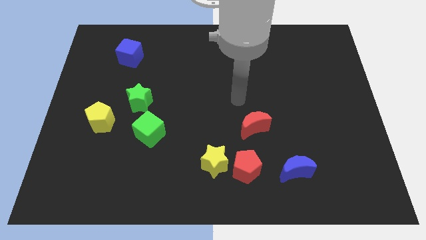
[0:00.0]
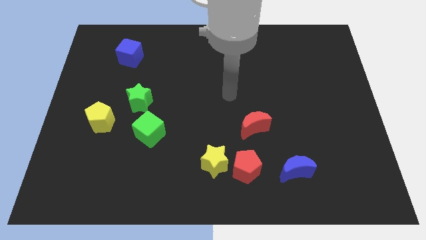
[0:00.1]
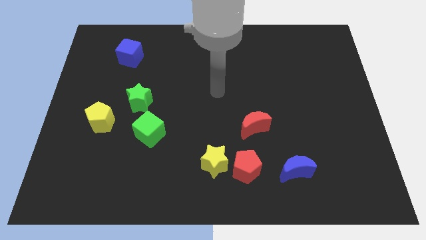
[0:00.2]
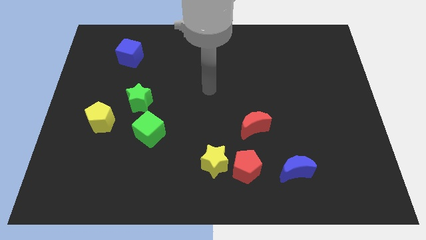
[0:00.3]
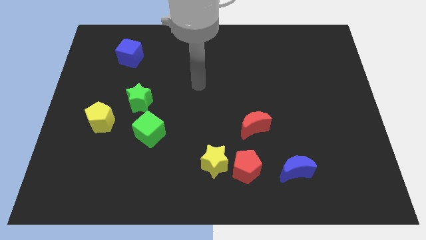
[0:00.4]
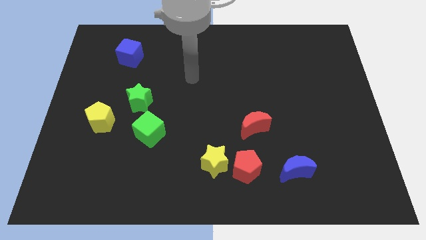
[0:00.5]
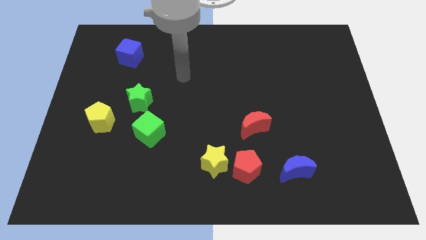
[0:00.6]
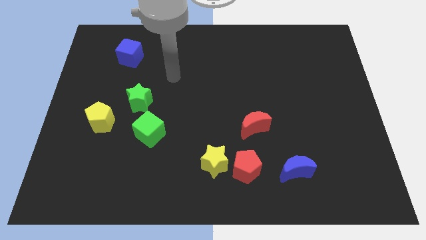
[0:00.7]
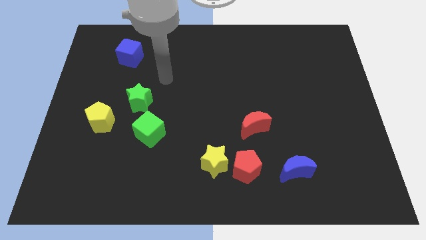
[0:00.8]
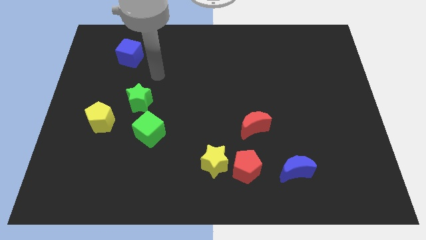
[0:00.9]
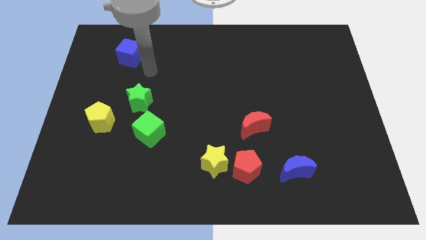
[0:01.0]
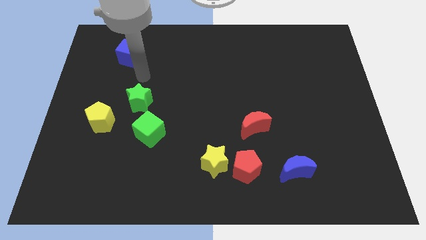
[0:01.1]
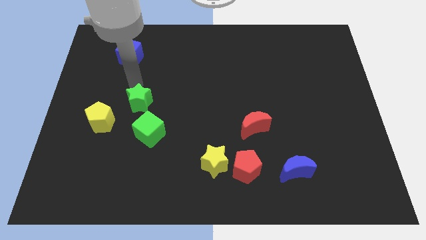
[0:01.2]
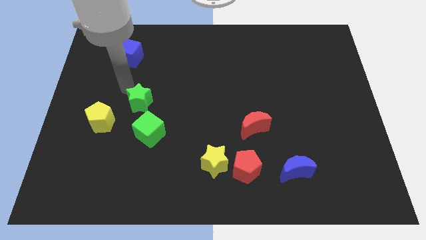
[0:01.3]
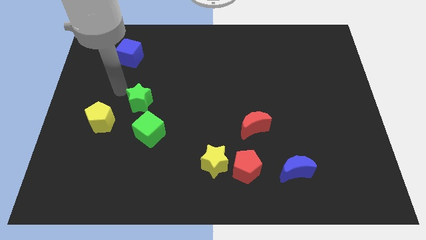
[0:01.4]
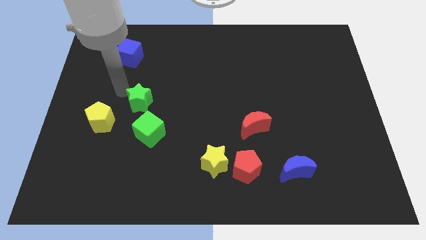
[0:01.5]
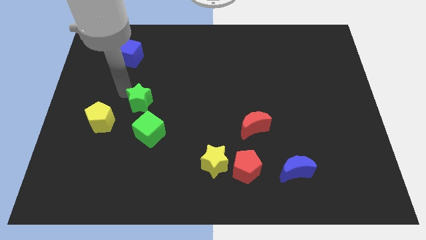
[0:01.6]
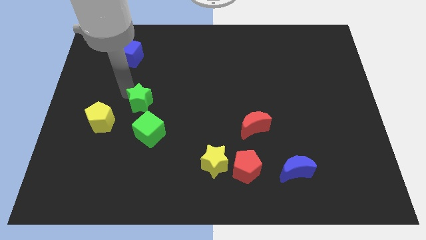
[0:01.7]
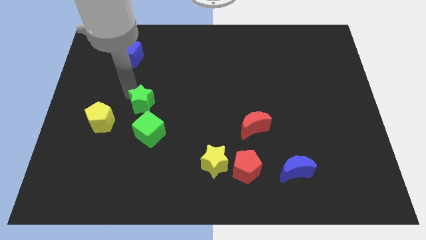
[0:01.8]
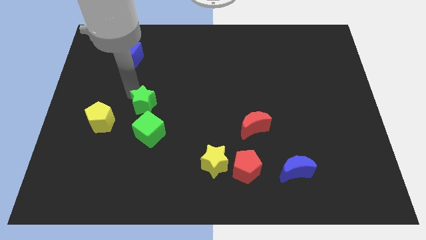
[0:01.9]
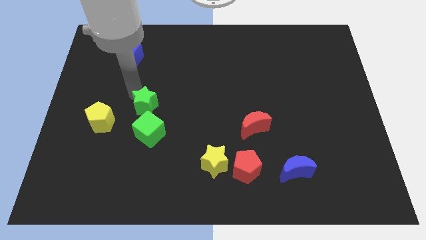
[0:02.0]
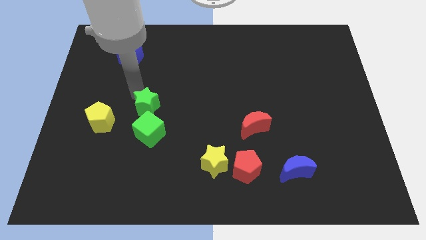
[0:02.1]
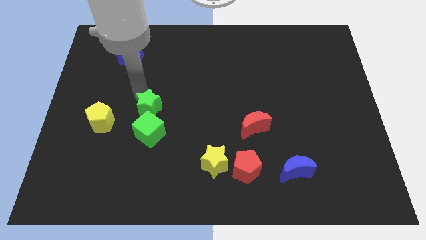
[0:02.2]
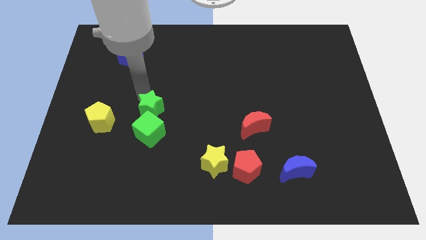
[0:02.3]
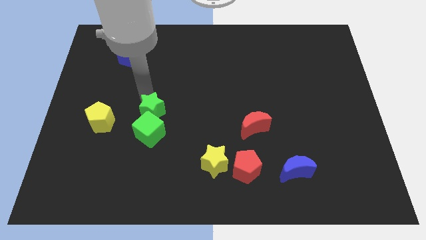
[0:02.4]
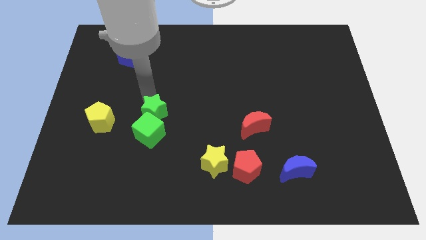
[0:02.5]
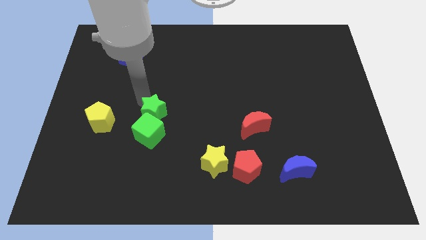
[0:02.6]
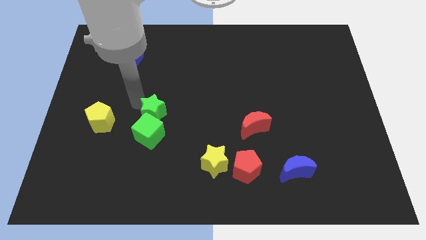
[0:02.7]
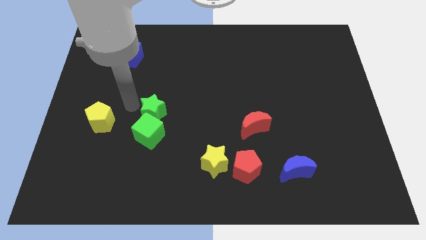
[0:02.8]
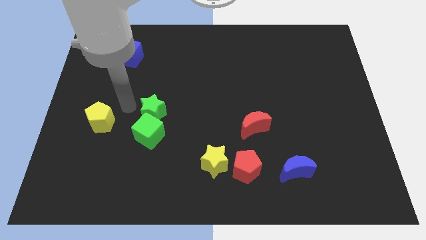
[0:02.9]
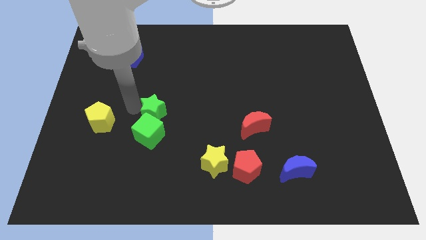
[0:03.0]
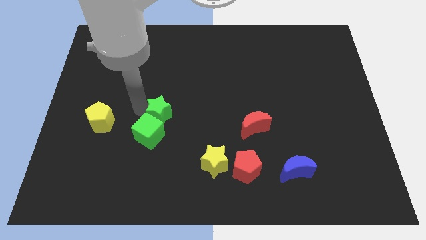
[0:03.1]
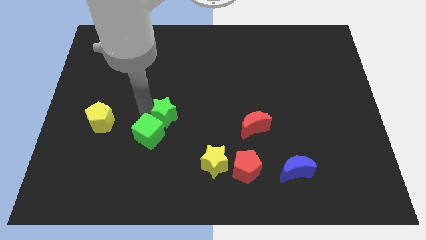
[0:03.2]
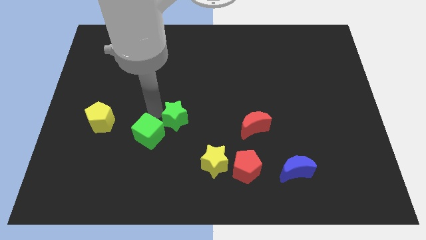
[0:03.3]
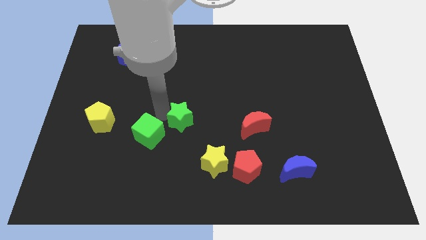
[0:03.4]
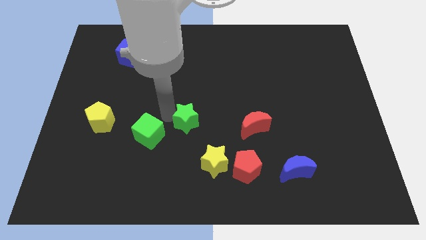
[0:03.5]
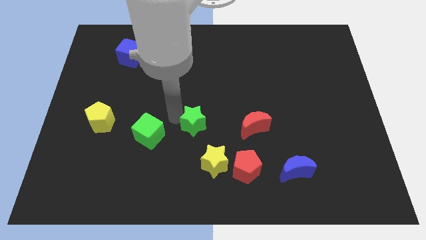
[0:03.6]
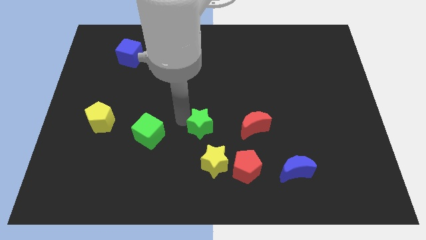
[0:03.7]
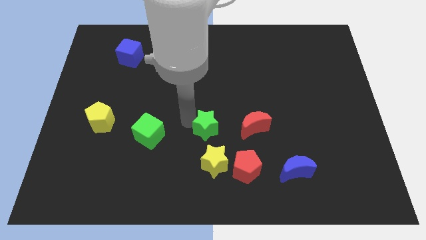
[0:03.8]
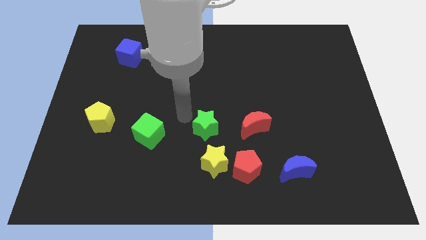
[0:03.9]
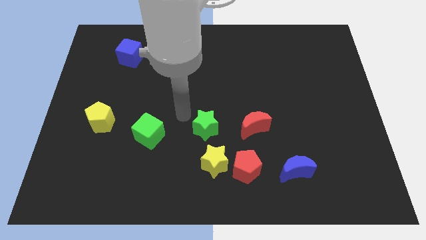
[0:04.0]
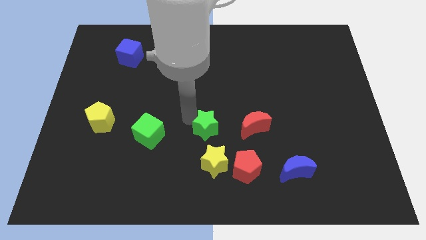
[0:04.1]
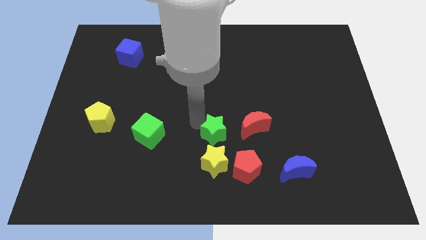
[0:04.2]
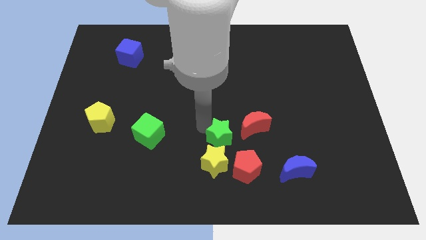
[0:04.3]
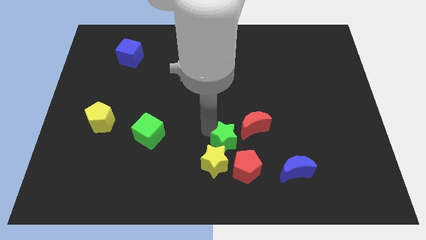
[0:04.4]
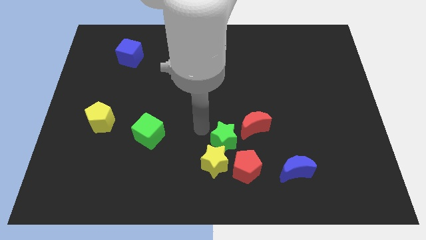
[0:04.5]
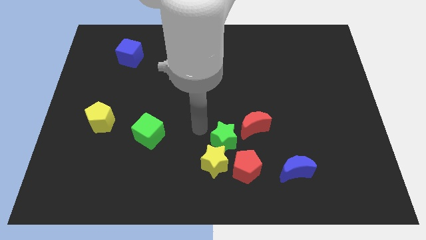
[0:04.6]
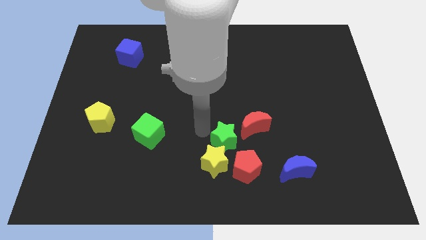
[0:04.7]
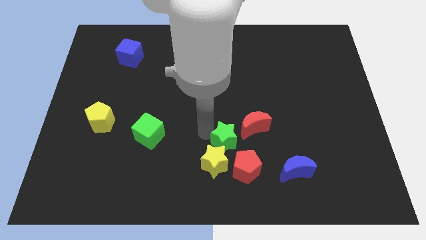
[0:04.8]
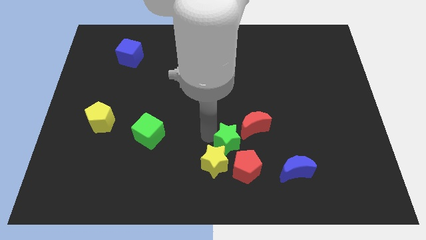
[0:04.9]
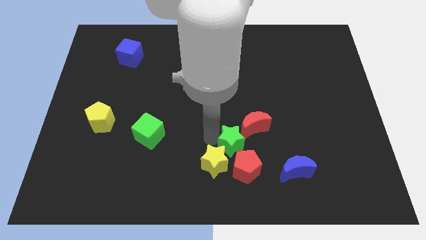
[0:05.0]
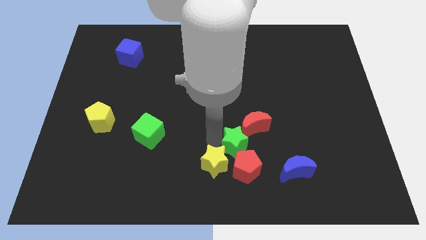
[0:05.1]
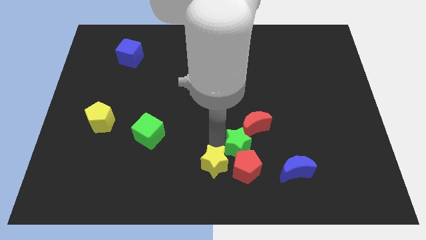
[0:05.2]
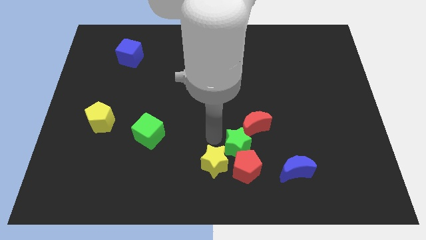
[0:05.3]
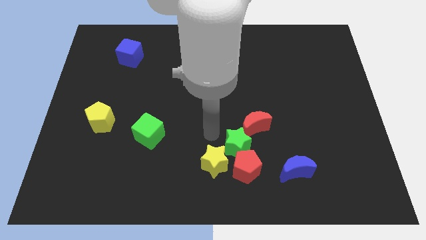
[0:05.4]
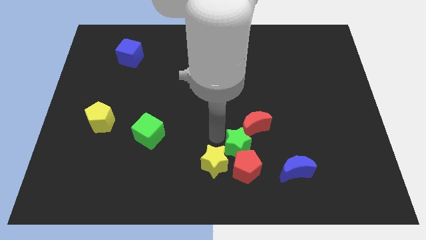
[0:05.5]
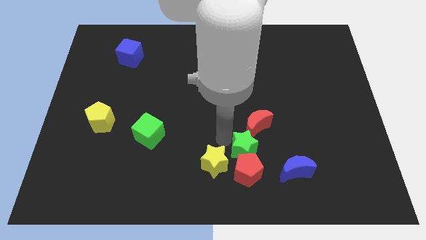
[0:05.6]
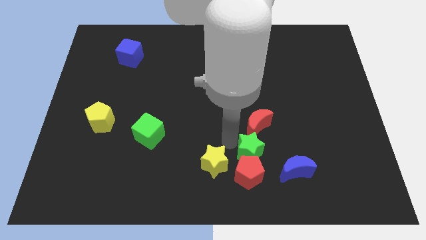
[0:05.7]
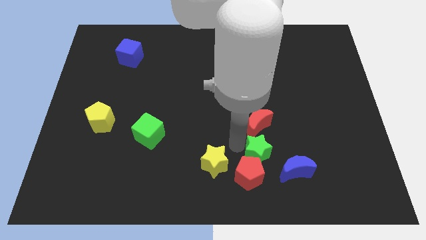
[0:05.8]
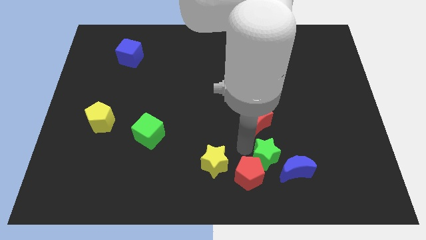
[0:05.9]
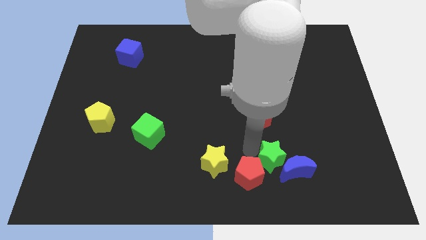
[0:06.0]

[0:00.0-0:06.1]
move the green star next to the blue moon

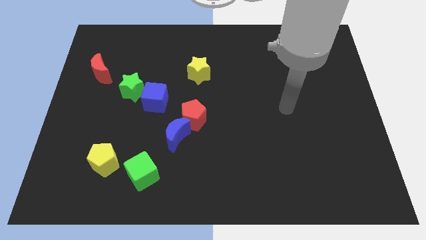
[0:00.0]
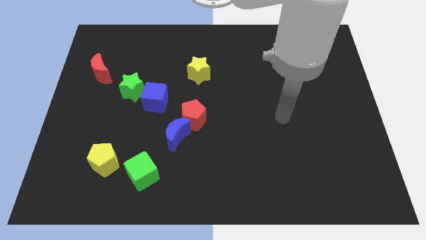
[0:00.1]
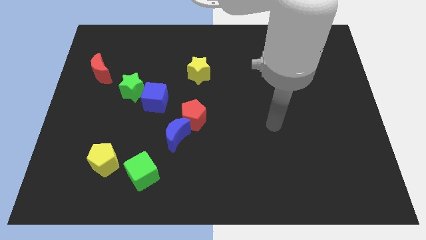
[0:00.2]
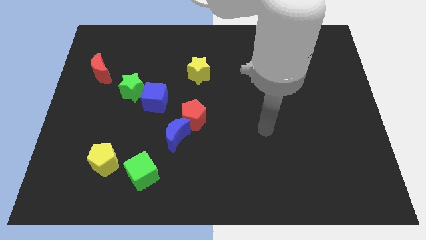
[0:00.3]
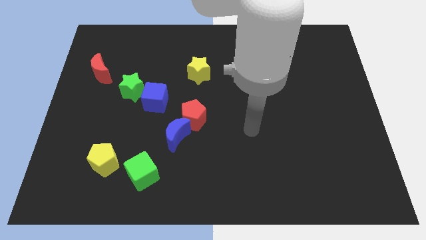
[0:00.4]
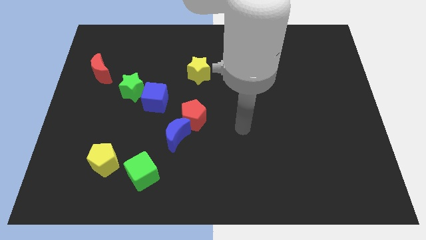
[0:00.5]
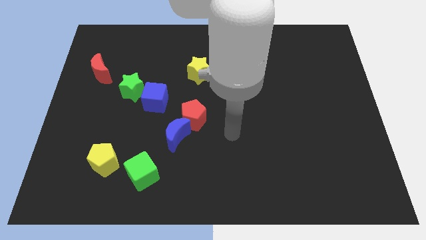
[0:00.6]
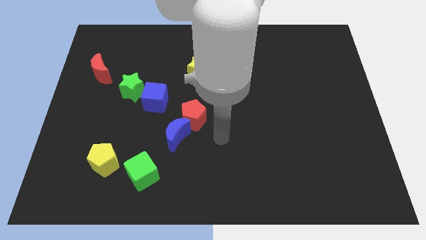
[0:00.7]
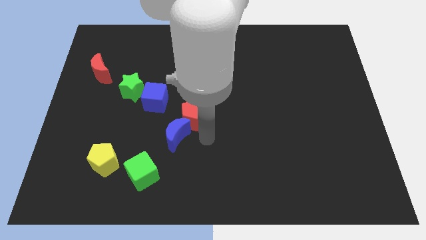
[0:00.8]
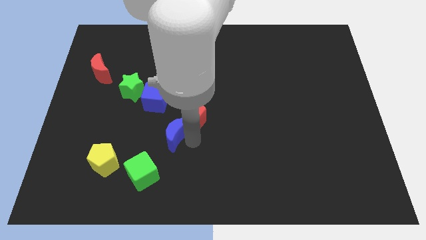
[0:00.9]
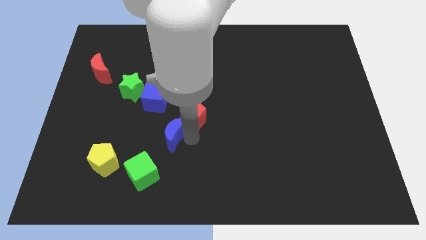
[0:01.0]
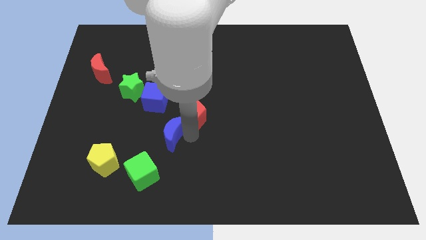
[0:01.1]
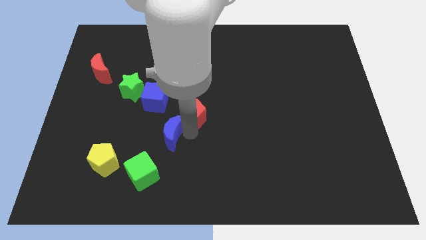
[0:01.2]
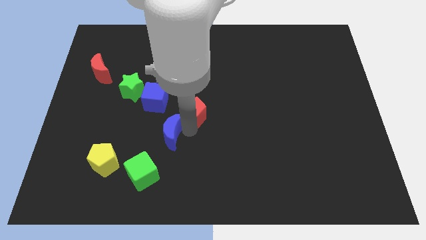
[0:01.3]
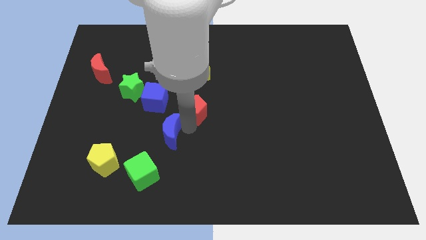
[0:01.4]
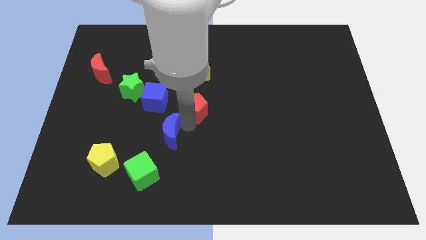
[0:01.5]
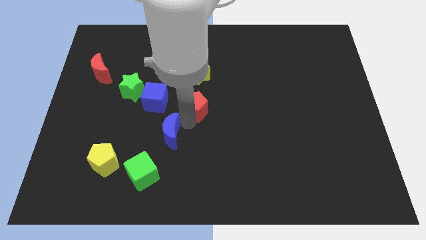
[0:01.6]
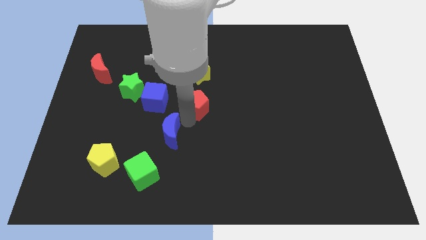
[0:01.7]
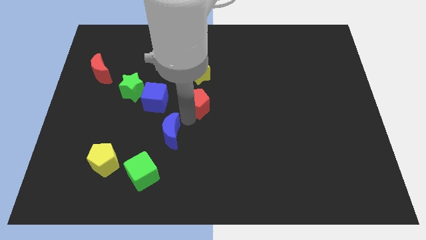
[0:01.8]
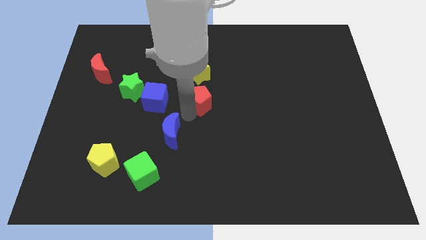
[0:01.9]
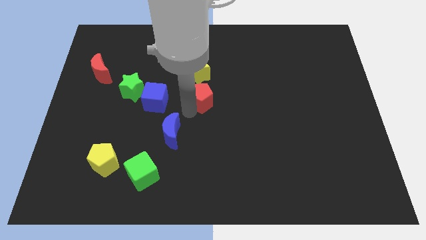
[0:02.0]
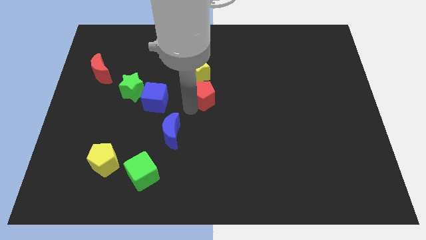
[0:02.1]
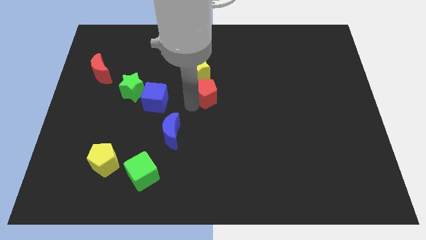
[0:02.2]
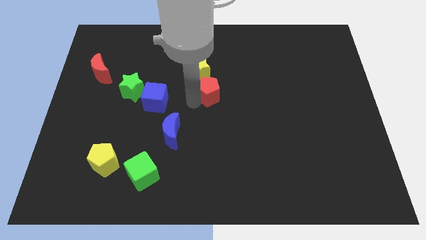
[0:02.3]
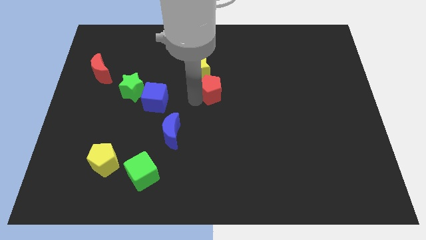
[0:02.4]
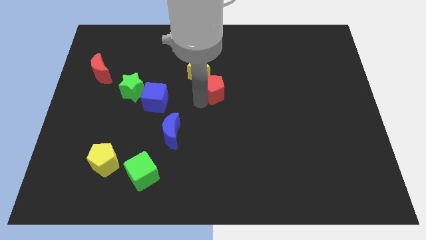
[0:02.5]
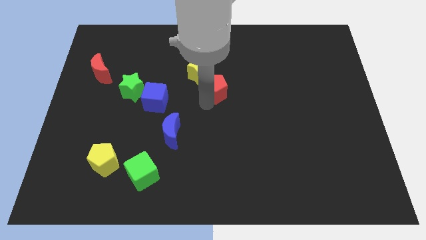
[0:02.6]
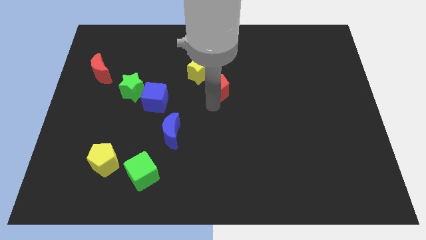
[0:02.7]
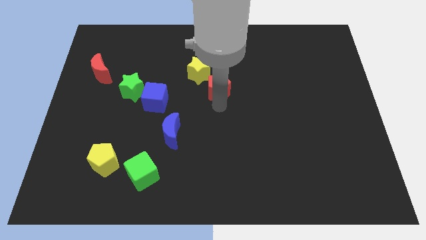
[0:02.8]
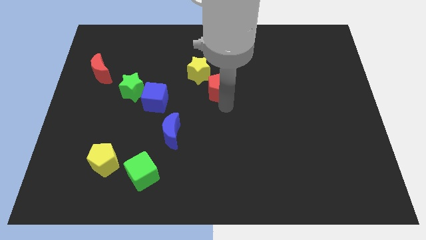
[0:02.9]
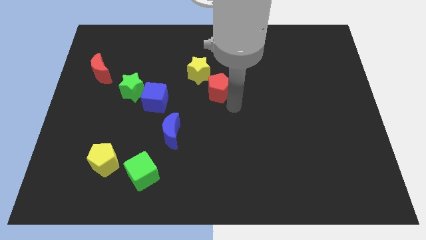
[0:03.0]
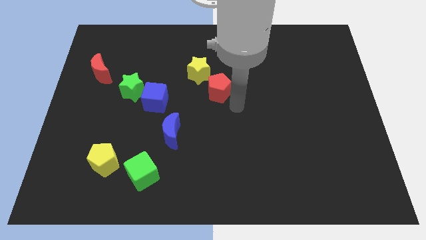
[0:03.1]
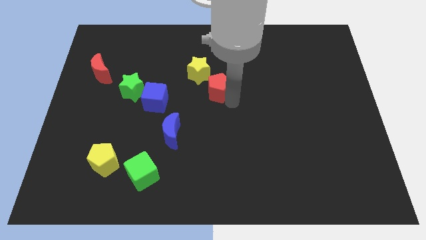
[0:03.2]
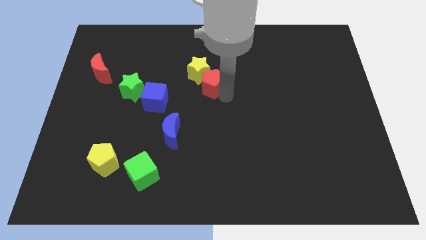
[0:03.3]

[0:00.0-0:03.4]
push the red pentagon next to the yellow star
